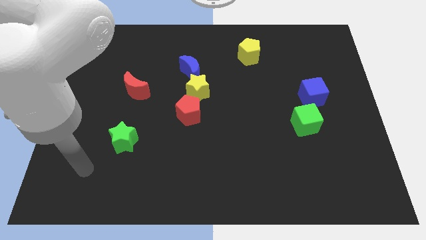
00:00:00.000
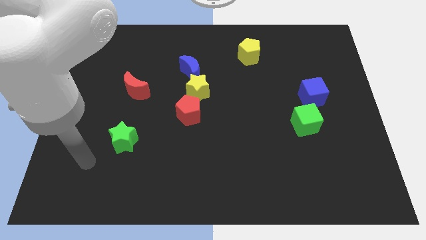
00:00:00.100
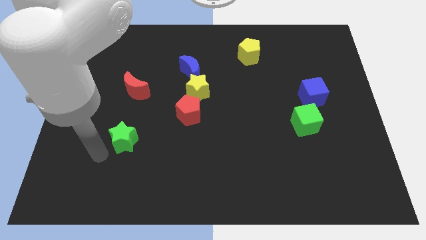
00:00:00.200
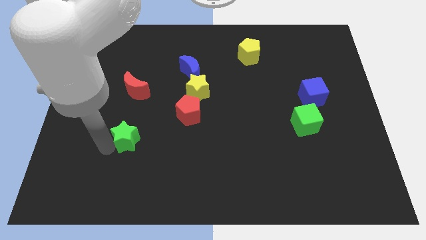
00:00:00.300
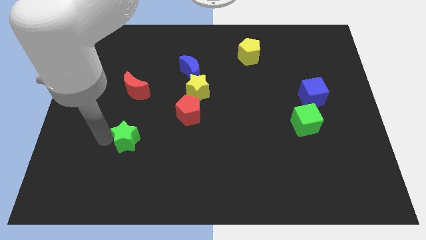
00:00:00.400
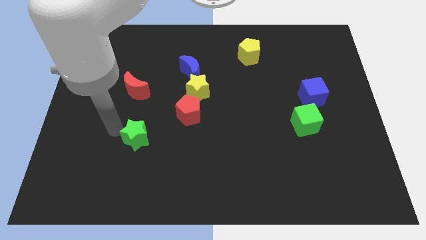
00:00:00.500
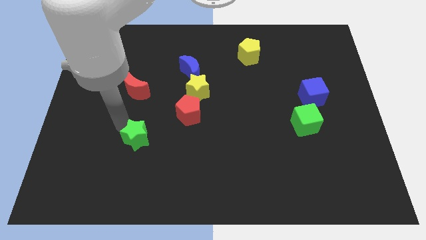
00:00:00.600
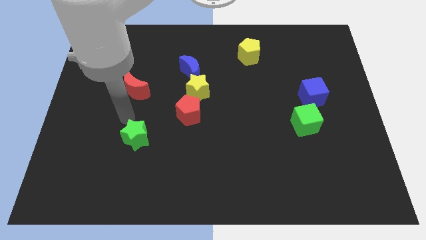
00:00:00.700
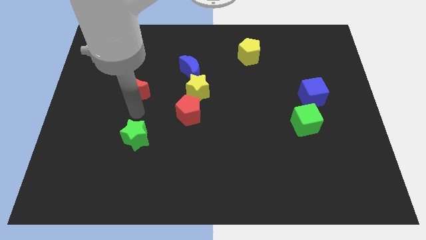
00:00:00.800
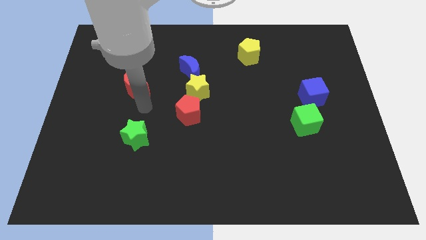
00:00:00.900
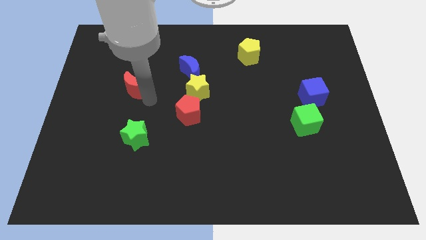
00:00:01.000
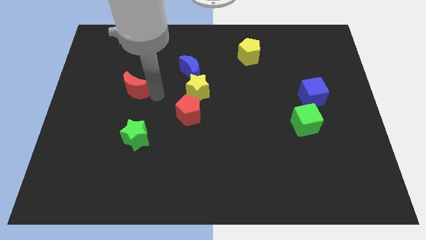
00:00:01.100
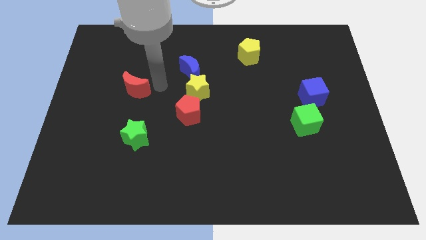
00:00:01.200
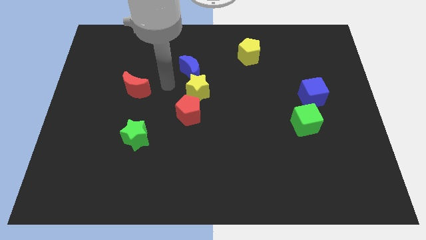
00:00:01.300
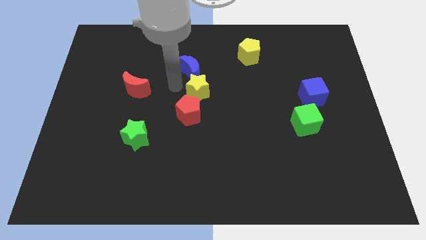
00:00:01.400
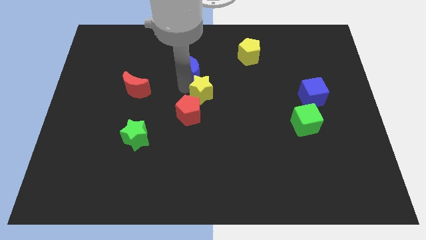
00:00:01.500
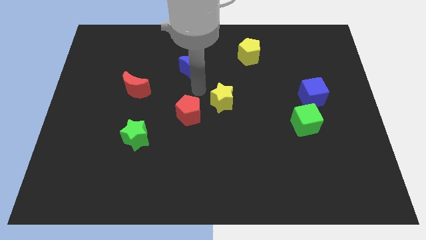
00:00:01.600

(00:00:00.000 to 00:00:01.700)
separate the blue moon from the yellow star

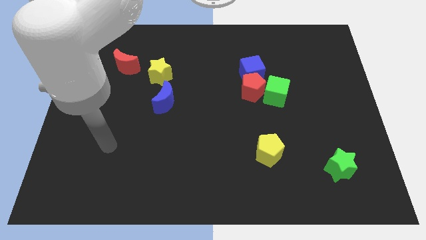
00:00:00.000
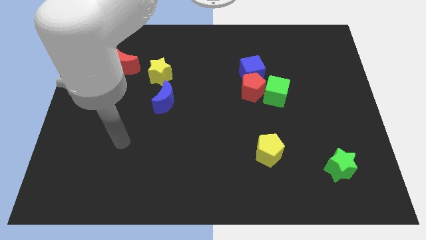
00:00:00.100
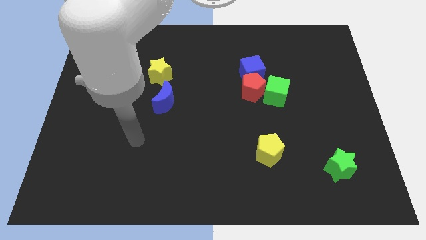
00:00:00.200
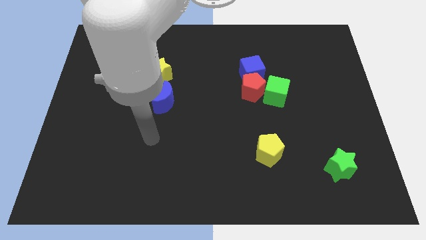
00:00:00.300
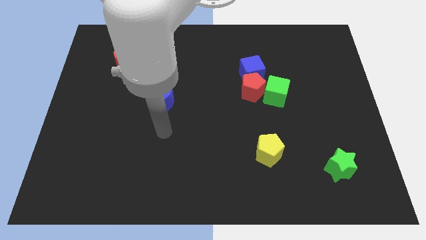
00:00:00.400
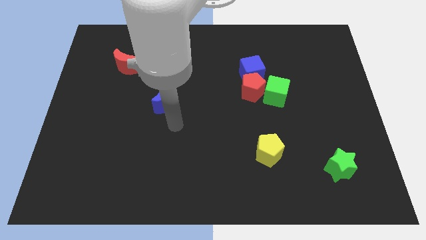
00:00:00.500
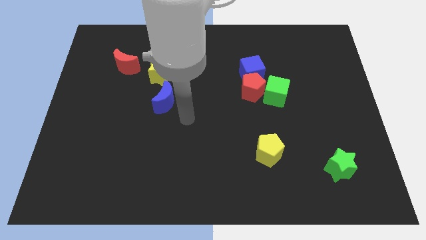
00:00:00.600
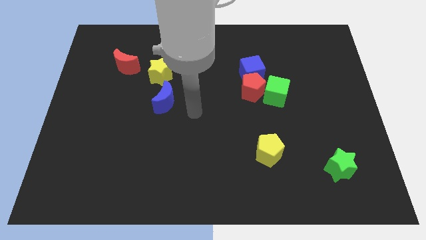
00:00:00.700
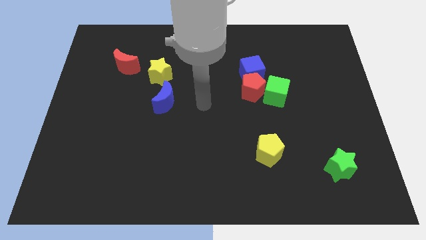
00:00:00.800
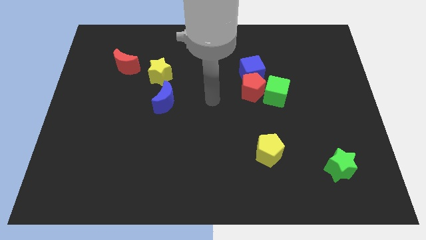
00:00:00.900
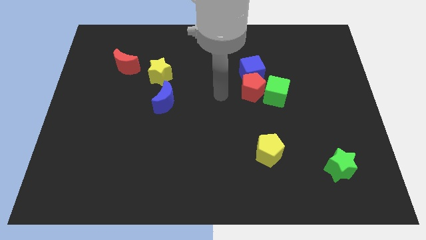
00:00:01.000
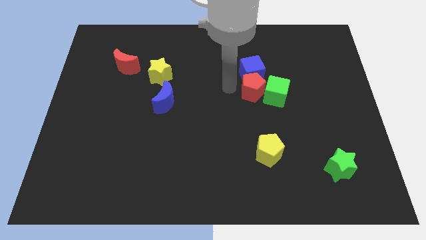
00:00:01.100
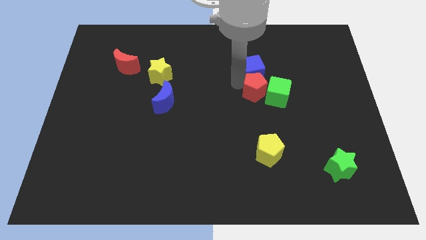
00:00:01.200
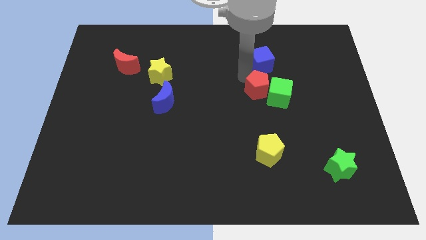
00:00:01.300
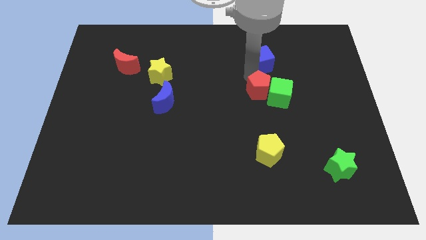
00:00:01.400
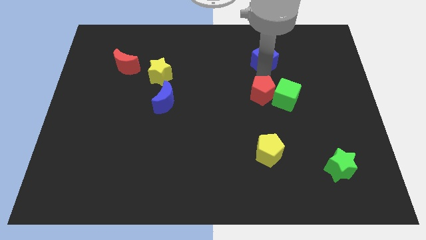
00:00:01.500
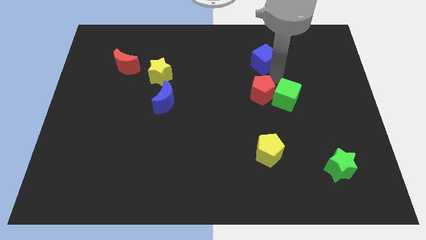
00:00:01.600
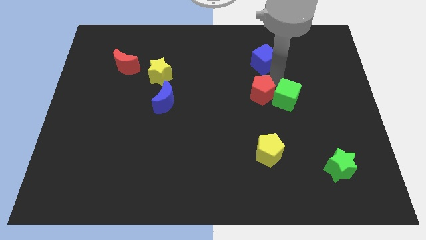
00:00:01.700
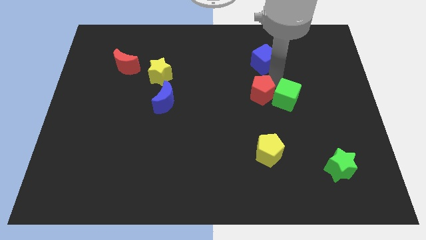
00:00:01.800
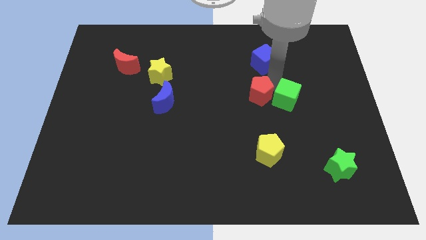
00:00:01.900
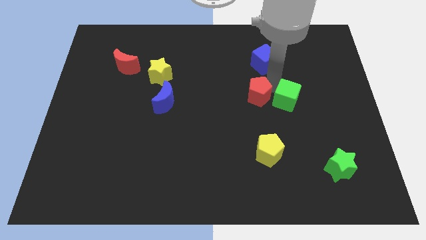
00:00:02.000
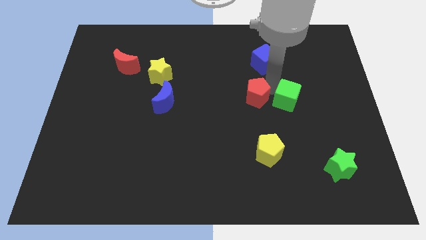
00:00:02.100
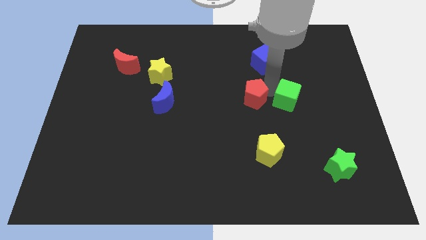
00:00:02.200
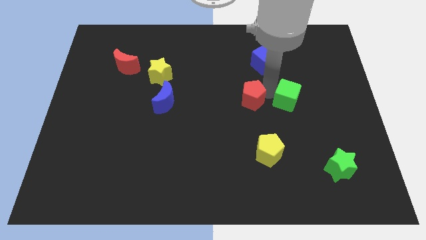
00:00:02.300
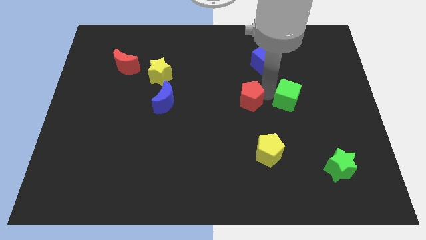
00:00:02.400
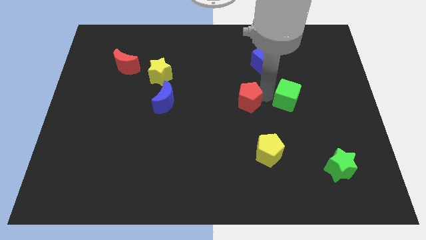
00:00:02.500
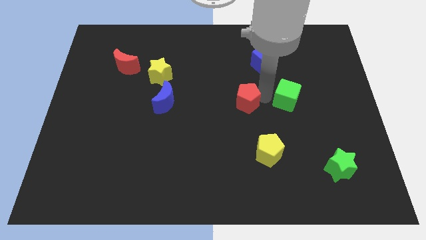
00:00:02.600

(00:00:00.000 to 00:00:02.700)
move the red pentagon away from the blue cube and green cube

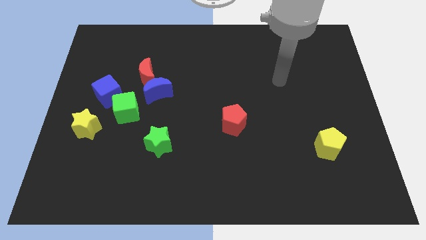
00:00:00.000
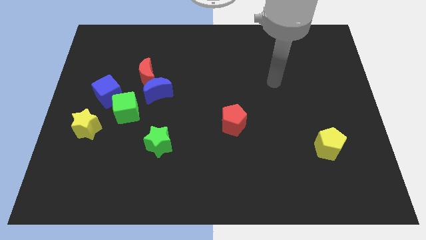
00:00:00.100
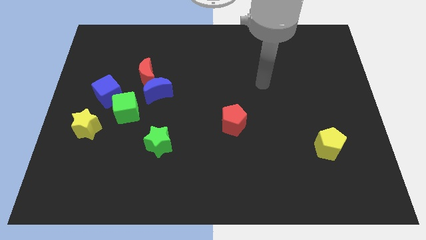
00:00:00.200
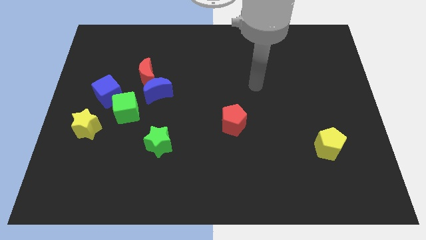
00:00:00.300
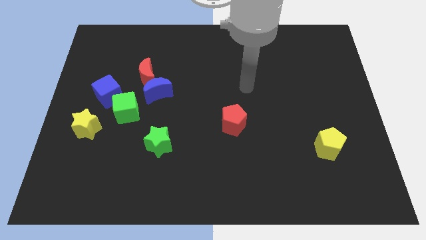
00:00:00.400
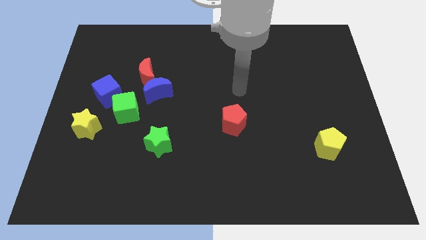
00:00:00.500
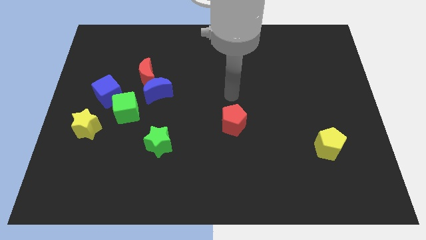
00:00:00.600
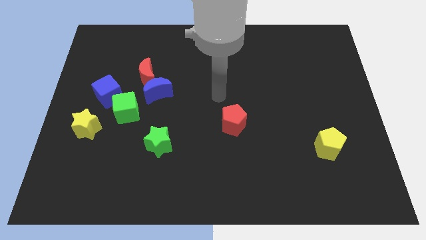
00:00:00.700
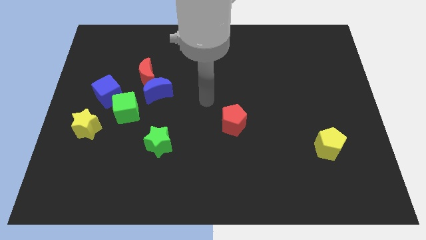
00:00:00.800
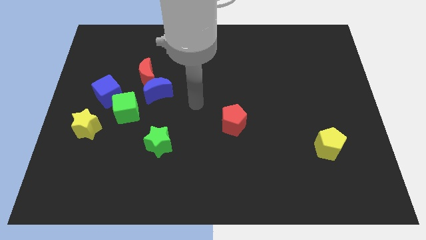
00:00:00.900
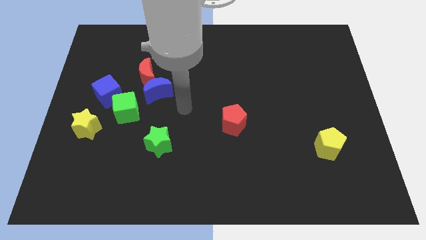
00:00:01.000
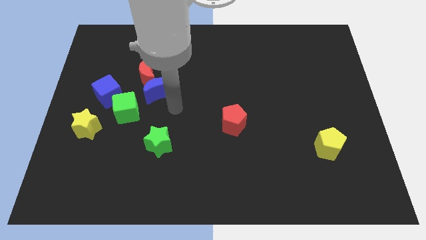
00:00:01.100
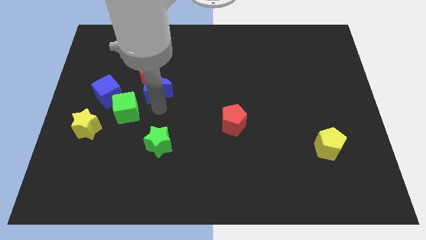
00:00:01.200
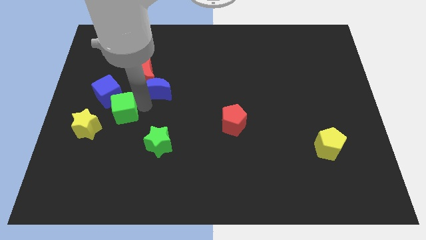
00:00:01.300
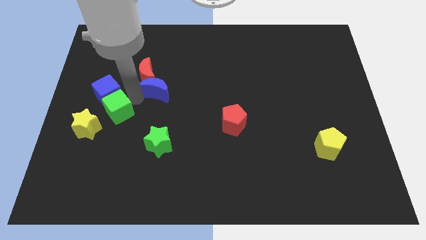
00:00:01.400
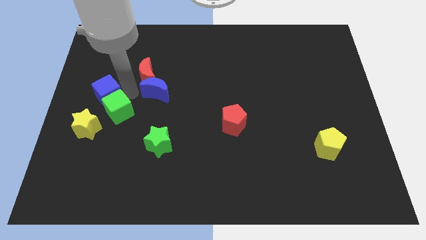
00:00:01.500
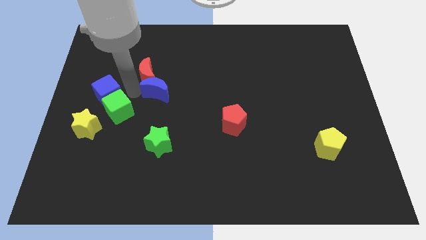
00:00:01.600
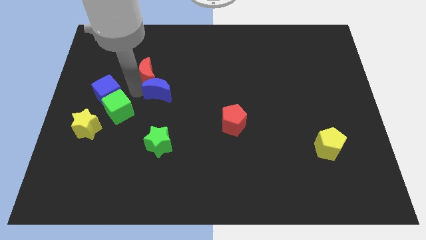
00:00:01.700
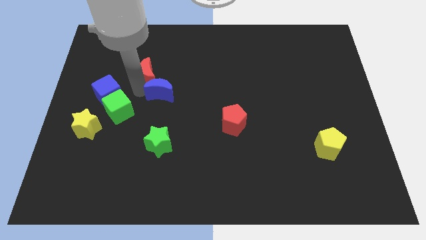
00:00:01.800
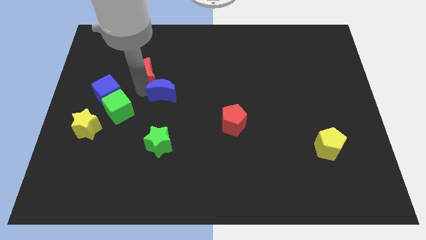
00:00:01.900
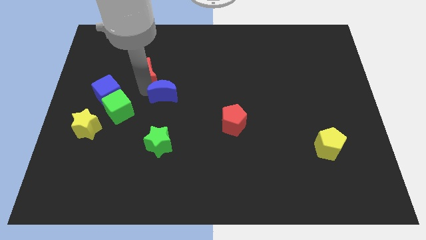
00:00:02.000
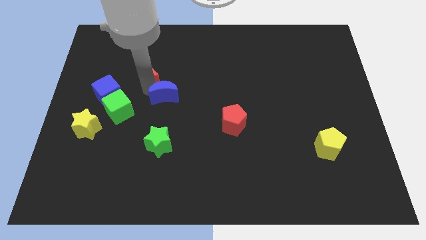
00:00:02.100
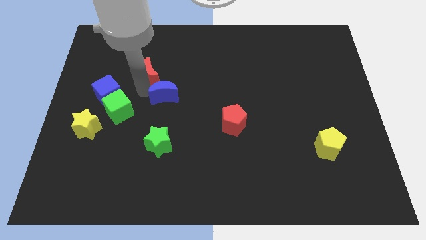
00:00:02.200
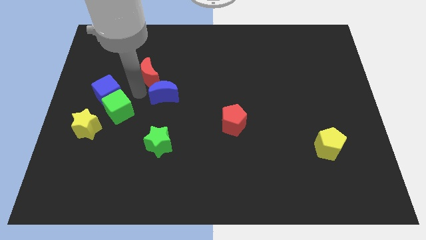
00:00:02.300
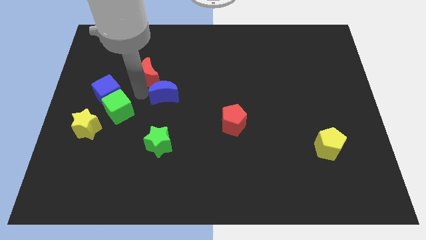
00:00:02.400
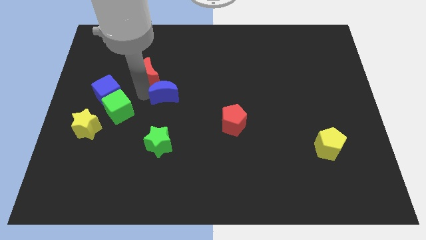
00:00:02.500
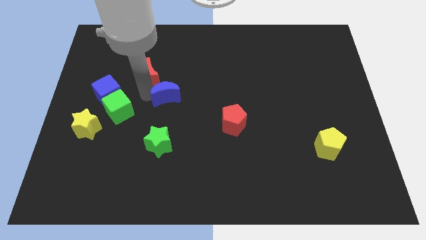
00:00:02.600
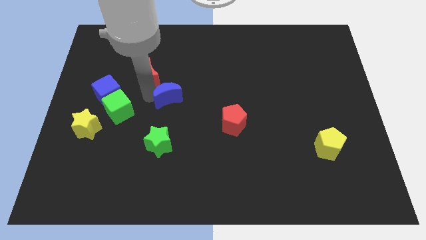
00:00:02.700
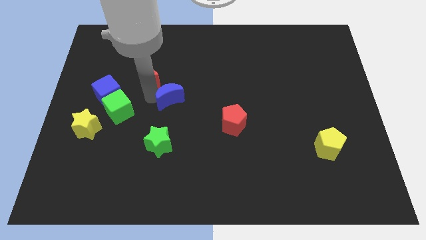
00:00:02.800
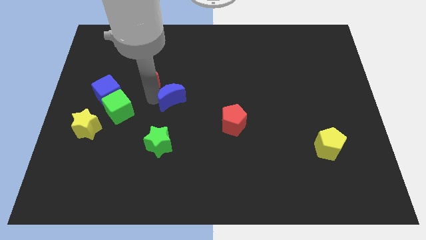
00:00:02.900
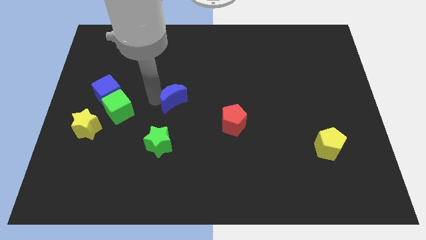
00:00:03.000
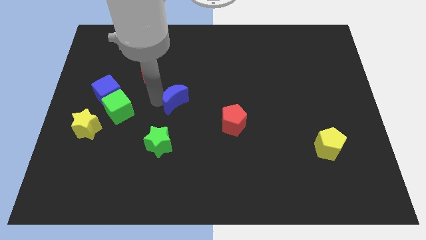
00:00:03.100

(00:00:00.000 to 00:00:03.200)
move the blue moon away from the red moon and green cube

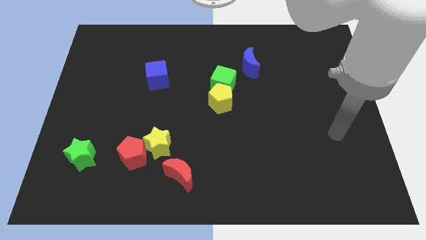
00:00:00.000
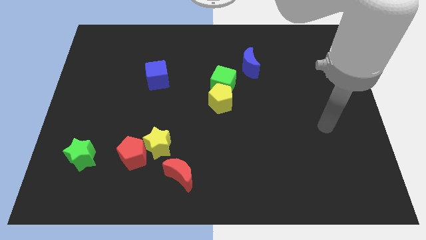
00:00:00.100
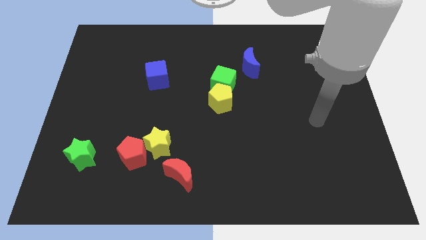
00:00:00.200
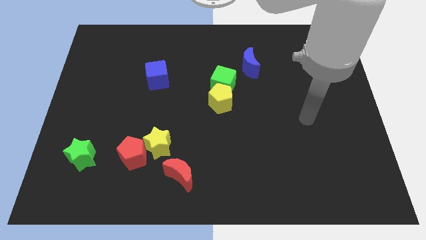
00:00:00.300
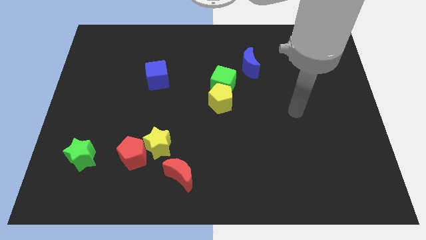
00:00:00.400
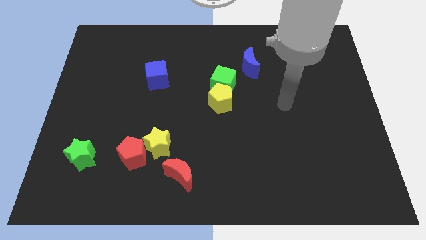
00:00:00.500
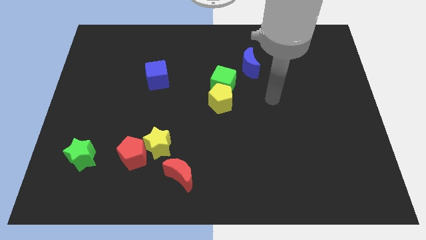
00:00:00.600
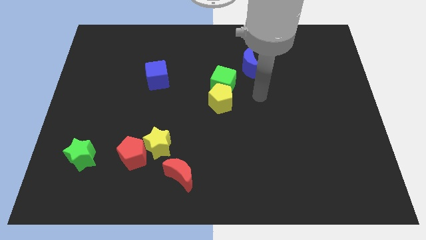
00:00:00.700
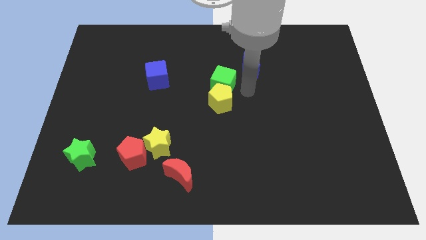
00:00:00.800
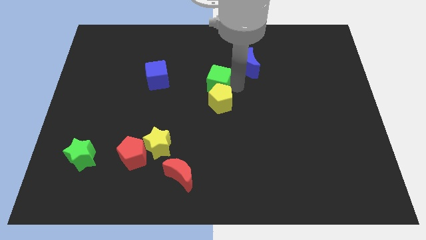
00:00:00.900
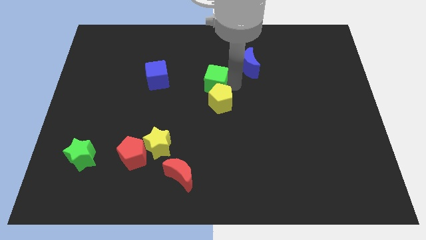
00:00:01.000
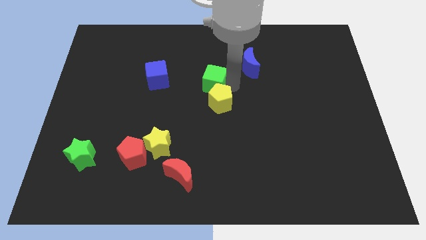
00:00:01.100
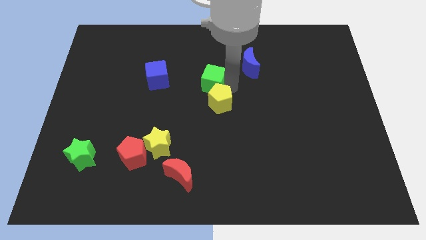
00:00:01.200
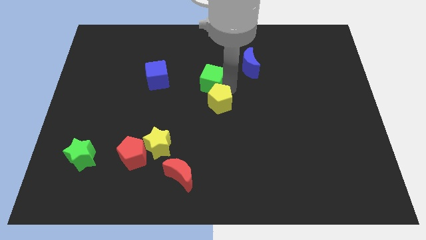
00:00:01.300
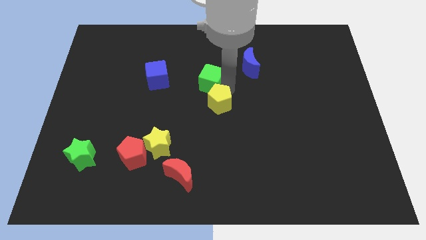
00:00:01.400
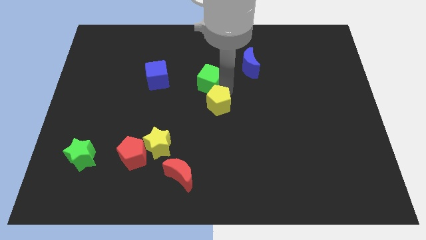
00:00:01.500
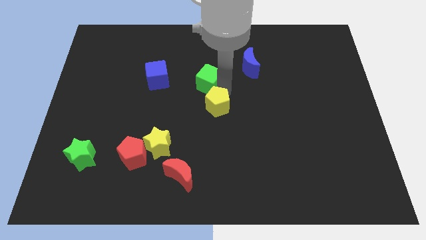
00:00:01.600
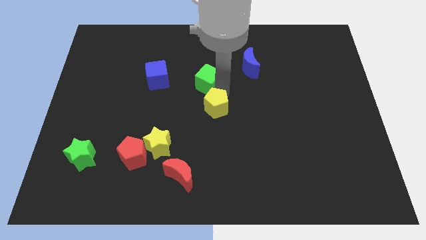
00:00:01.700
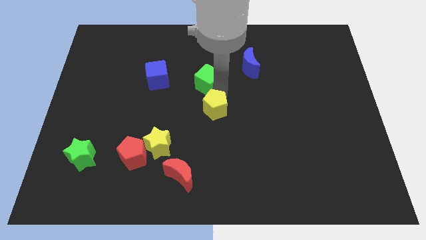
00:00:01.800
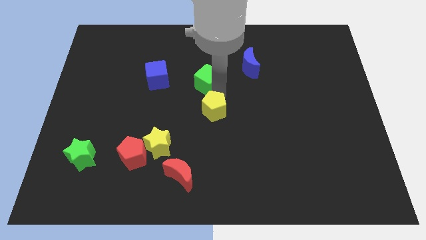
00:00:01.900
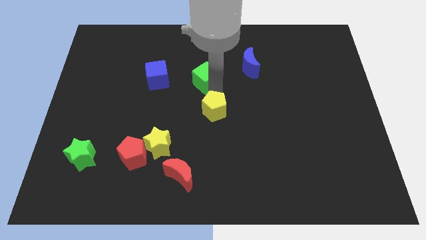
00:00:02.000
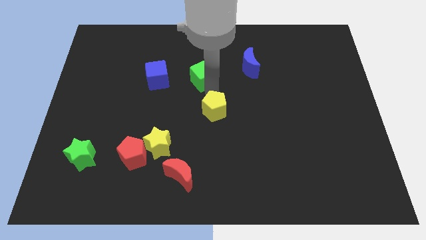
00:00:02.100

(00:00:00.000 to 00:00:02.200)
separate the yellow pentagon from the green cube
